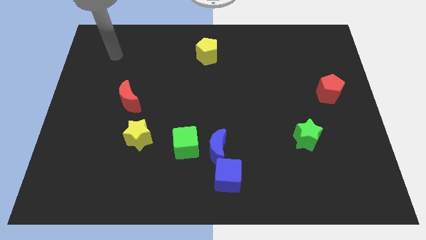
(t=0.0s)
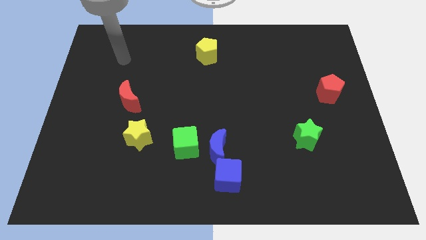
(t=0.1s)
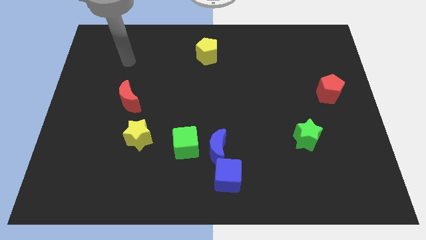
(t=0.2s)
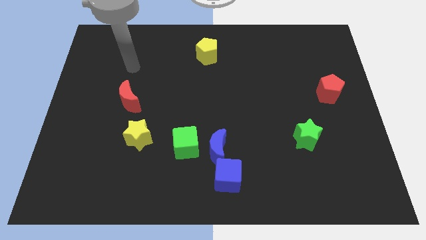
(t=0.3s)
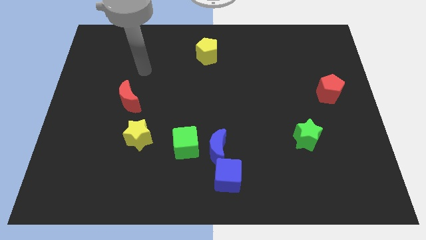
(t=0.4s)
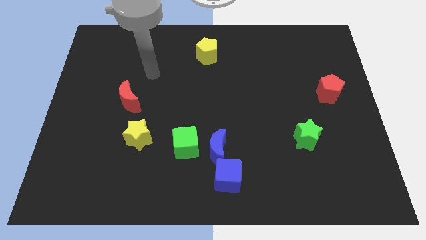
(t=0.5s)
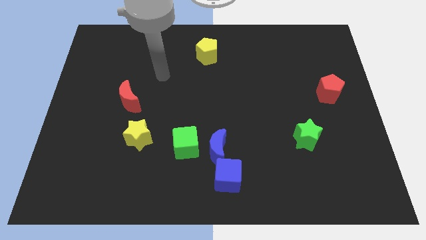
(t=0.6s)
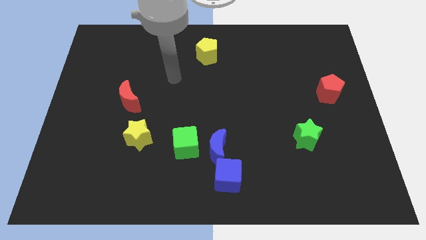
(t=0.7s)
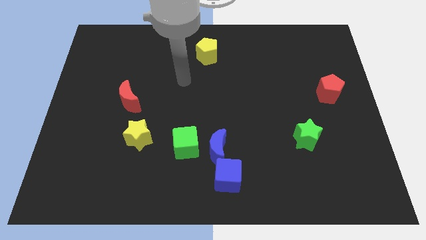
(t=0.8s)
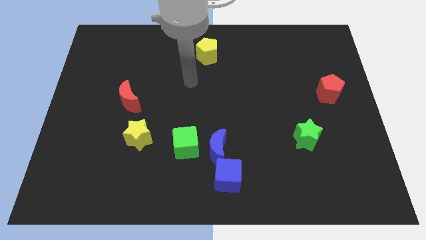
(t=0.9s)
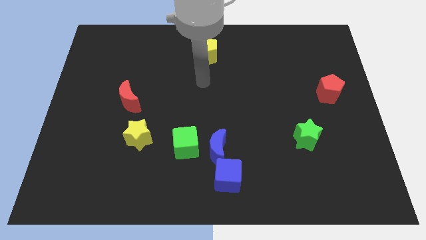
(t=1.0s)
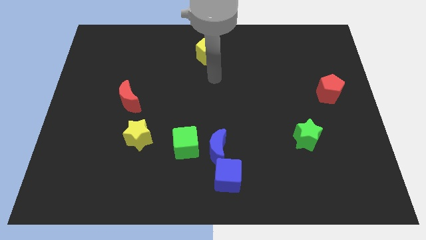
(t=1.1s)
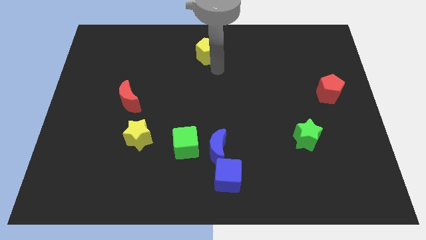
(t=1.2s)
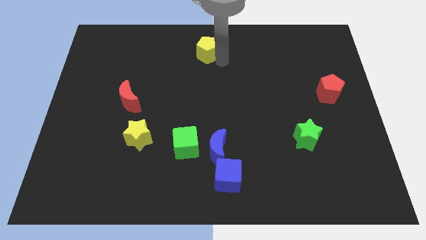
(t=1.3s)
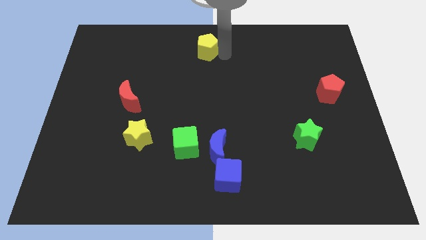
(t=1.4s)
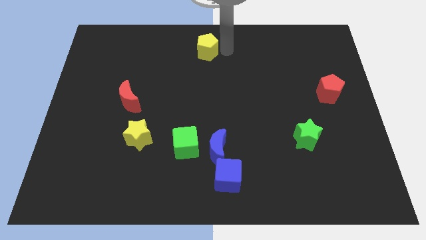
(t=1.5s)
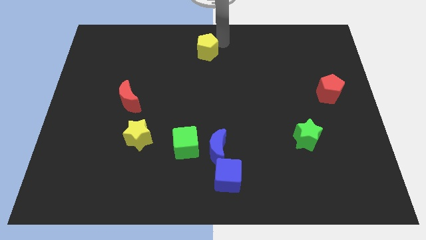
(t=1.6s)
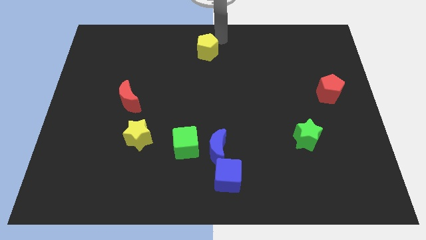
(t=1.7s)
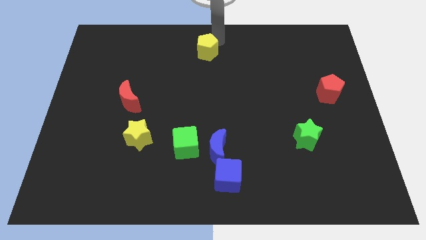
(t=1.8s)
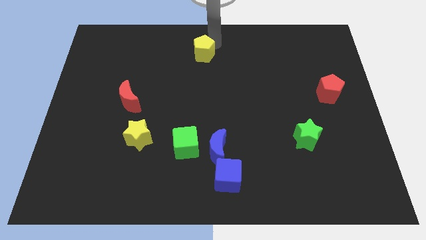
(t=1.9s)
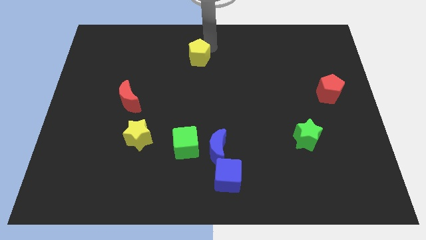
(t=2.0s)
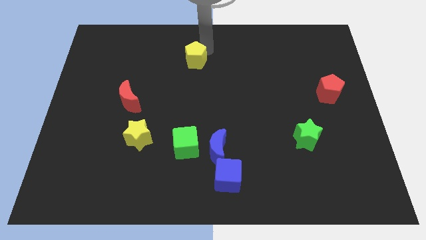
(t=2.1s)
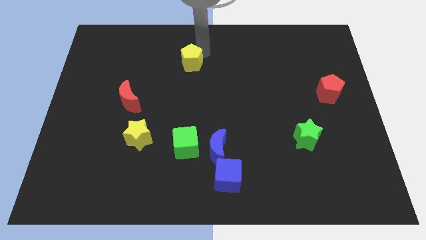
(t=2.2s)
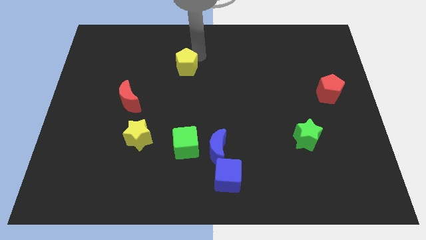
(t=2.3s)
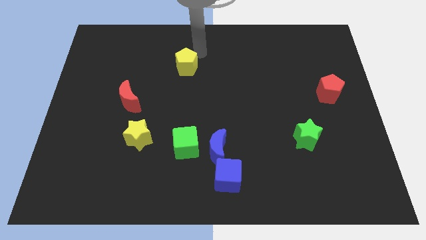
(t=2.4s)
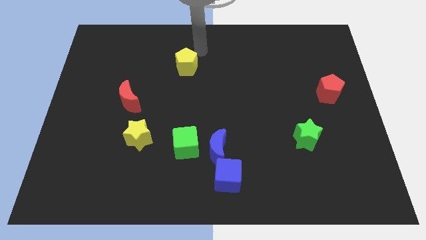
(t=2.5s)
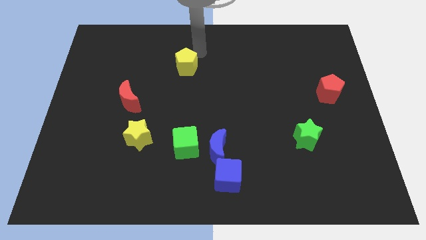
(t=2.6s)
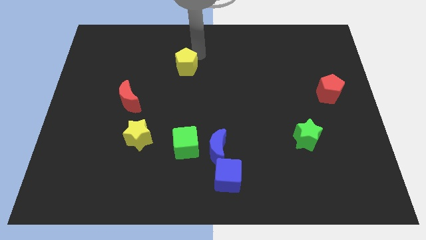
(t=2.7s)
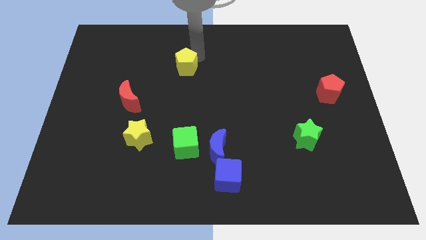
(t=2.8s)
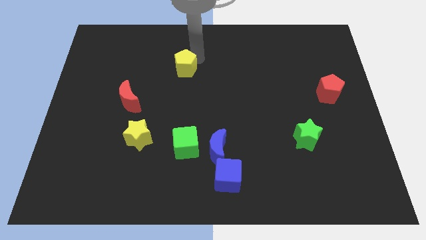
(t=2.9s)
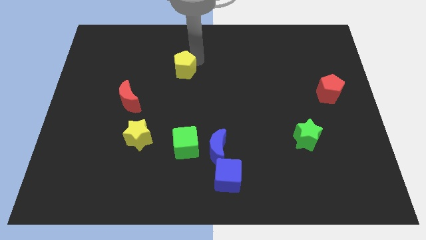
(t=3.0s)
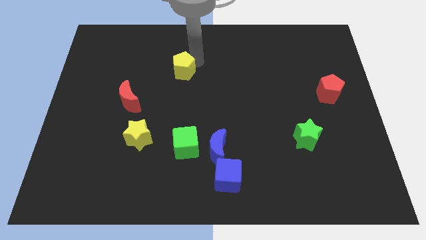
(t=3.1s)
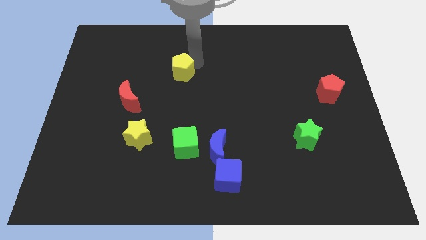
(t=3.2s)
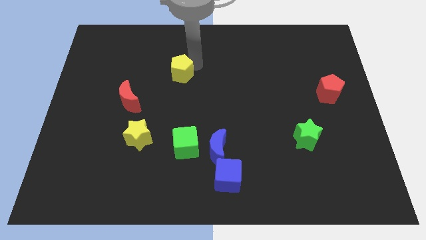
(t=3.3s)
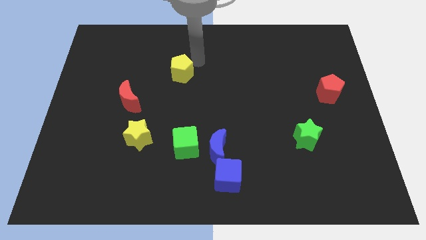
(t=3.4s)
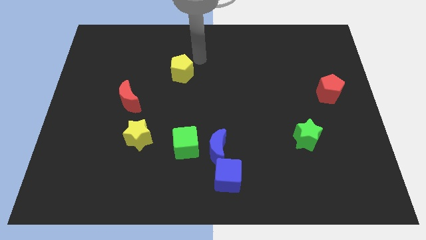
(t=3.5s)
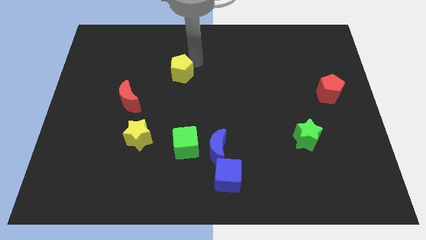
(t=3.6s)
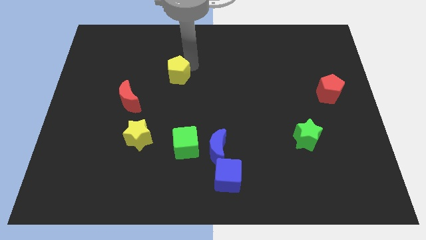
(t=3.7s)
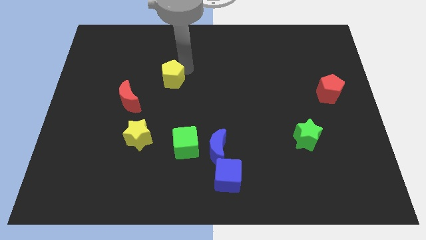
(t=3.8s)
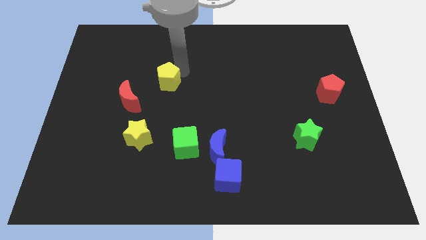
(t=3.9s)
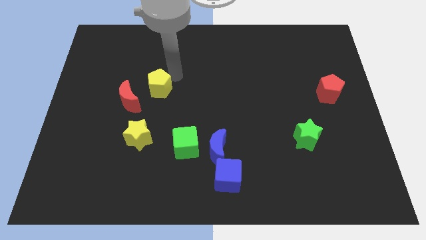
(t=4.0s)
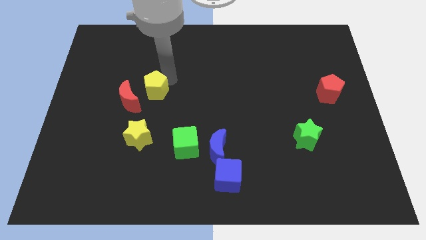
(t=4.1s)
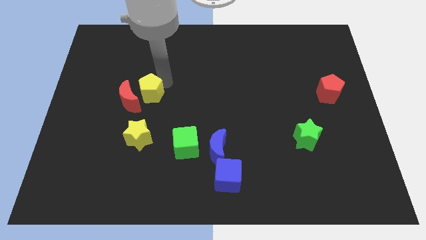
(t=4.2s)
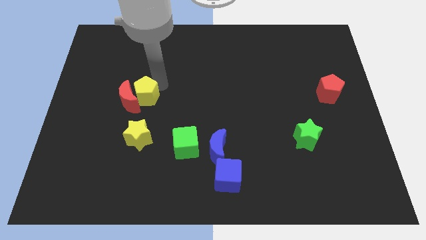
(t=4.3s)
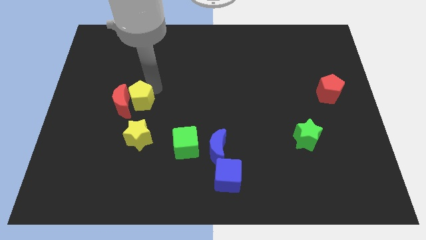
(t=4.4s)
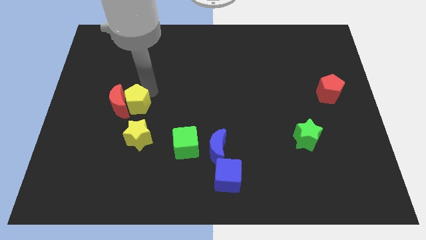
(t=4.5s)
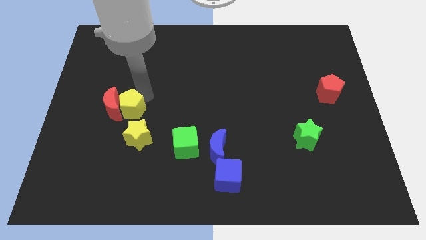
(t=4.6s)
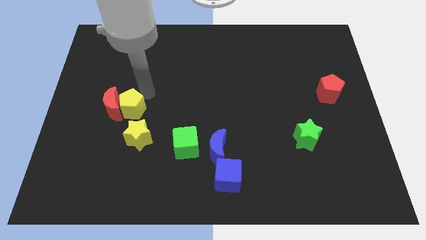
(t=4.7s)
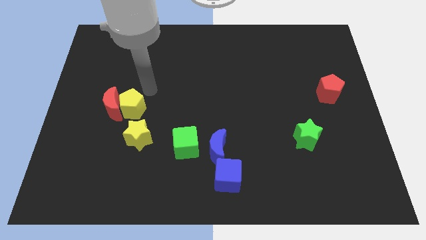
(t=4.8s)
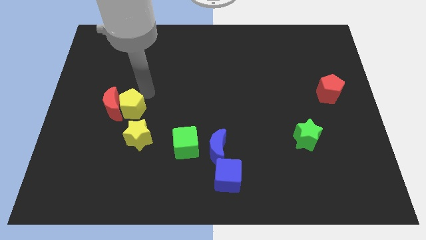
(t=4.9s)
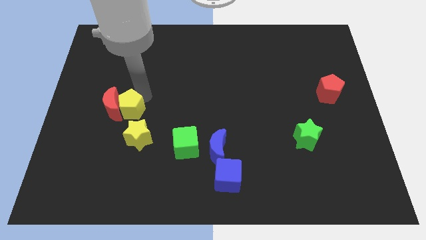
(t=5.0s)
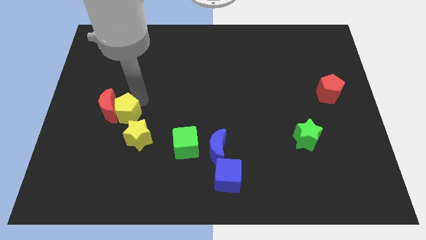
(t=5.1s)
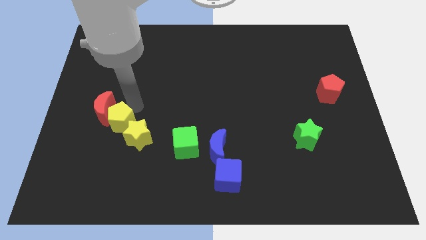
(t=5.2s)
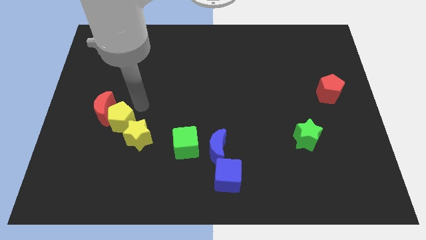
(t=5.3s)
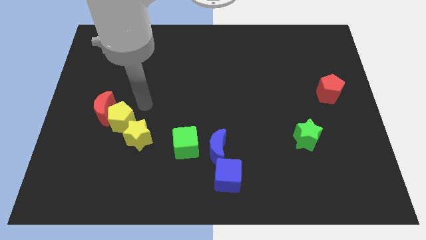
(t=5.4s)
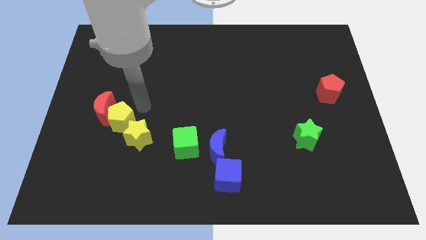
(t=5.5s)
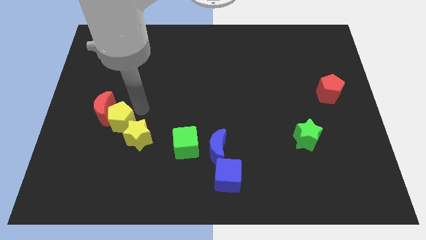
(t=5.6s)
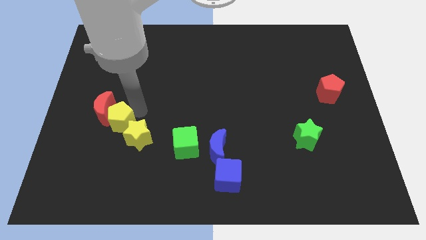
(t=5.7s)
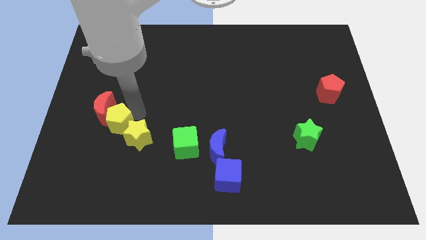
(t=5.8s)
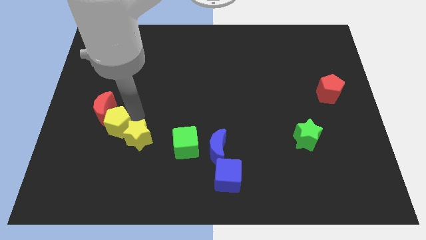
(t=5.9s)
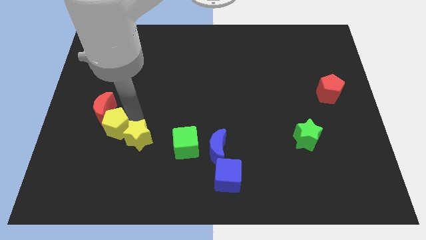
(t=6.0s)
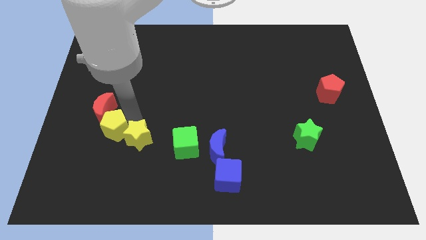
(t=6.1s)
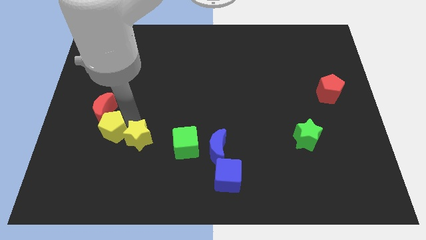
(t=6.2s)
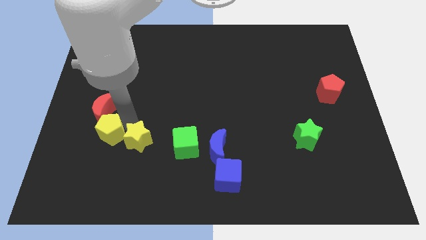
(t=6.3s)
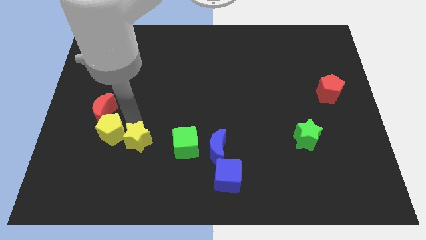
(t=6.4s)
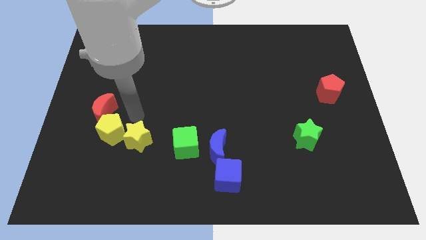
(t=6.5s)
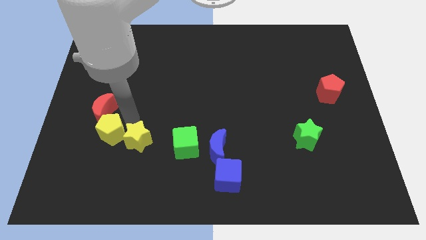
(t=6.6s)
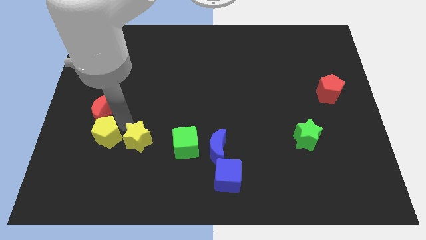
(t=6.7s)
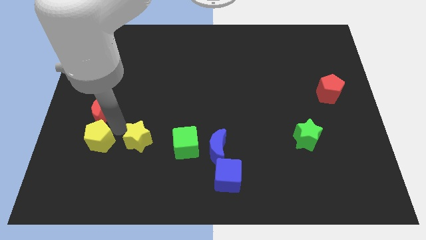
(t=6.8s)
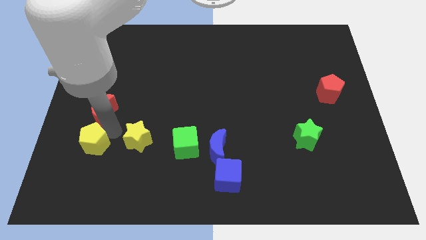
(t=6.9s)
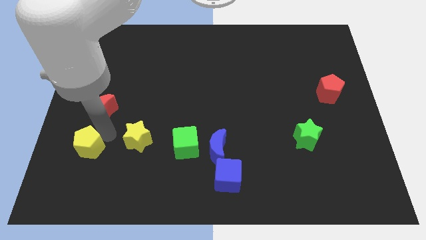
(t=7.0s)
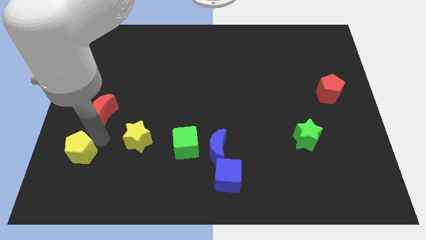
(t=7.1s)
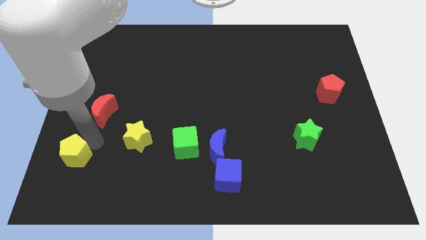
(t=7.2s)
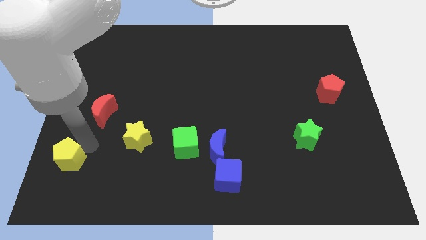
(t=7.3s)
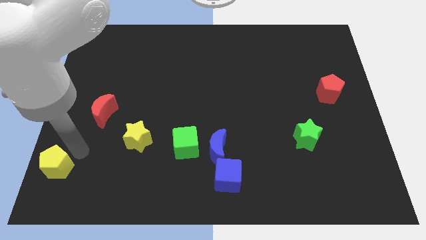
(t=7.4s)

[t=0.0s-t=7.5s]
put the yellow pentagon to the bottom left
